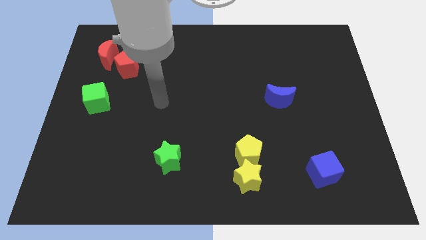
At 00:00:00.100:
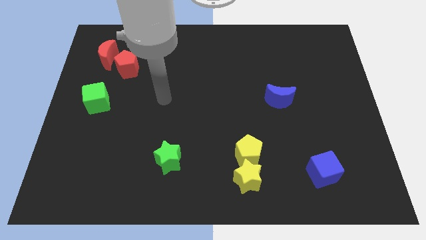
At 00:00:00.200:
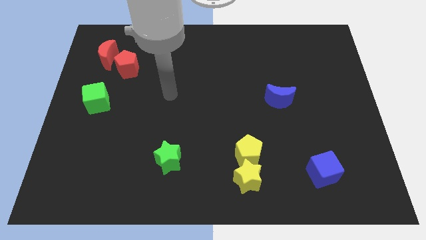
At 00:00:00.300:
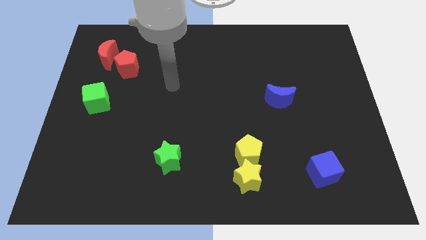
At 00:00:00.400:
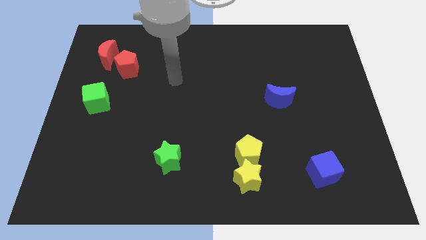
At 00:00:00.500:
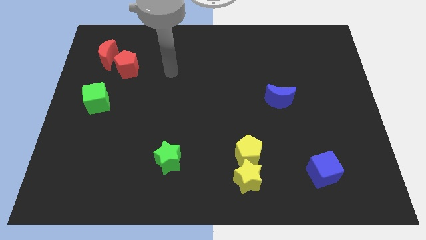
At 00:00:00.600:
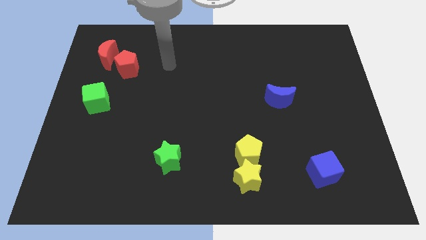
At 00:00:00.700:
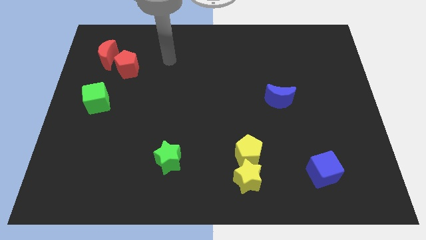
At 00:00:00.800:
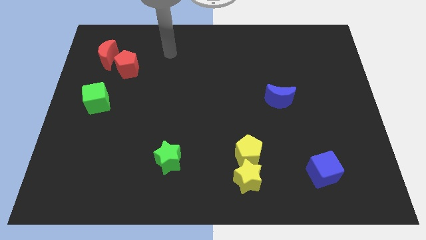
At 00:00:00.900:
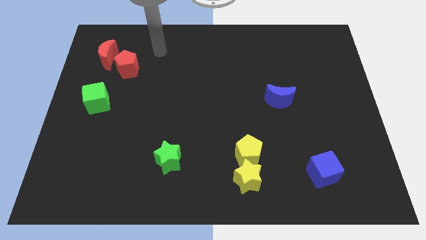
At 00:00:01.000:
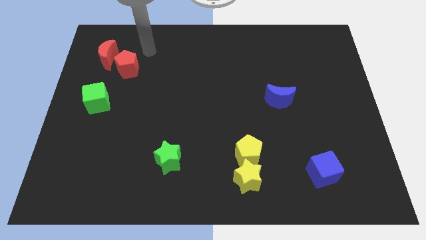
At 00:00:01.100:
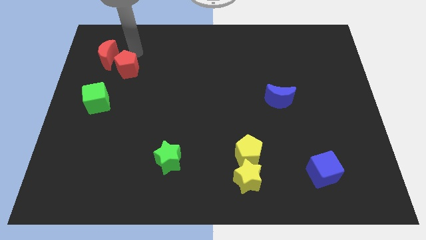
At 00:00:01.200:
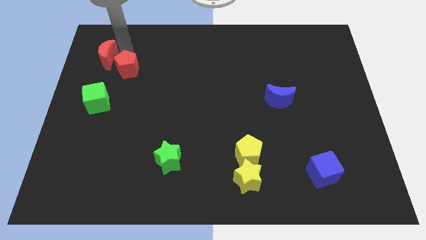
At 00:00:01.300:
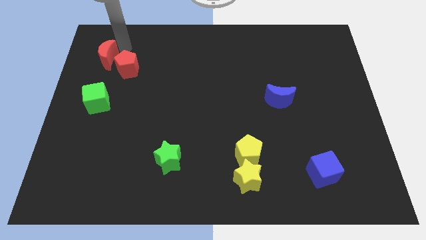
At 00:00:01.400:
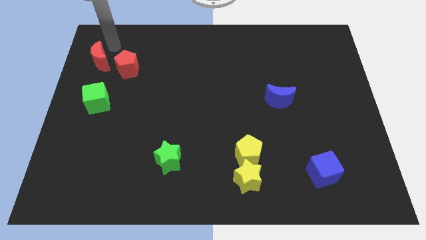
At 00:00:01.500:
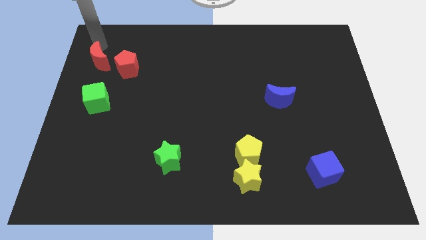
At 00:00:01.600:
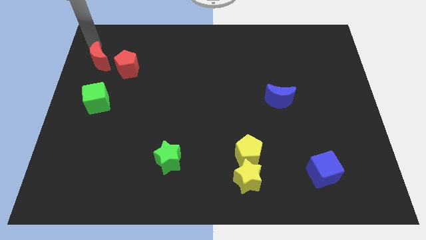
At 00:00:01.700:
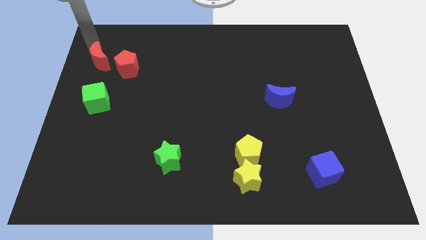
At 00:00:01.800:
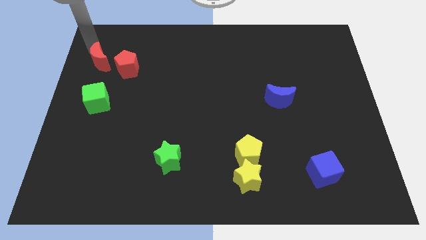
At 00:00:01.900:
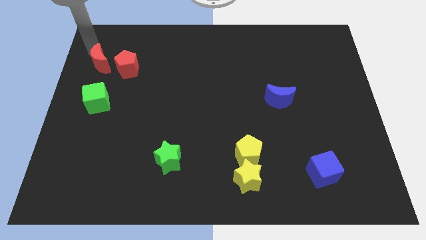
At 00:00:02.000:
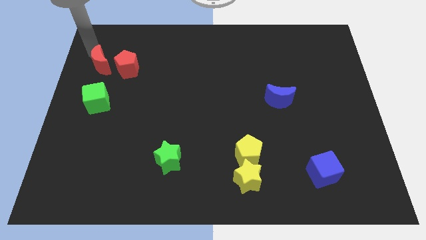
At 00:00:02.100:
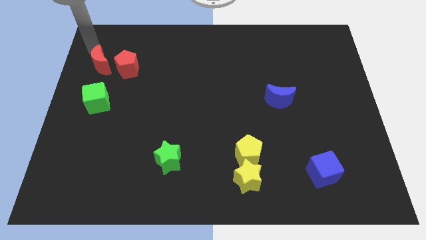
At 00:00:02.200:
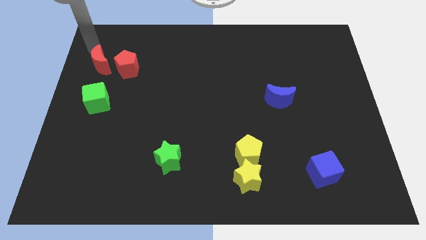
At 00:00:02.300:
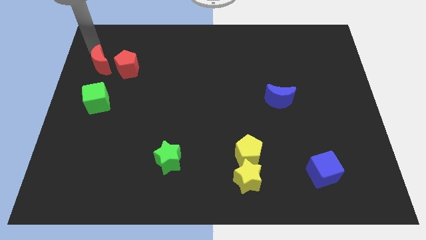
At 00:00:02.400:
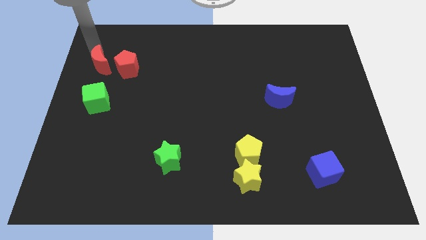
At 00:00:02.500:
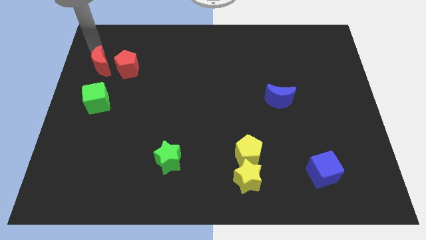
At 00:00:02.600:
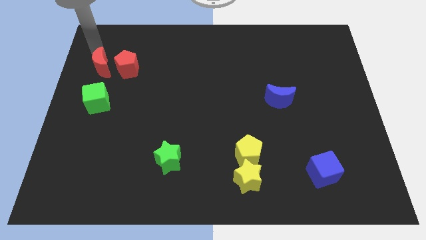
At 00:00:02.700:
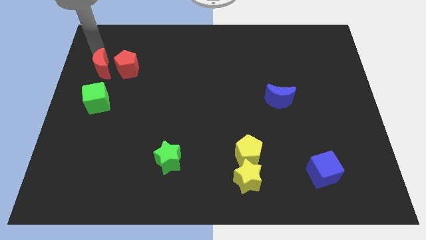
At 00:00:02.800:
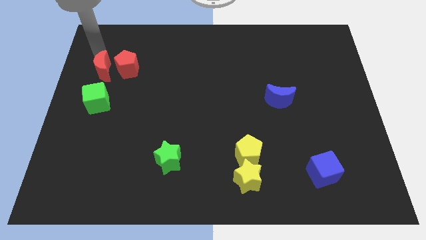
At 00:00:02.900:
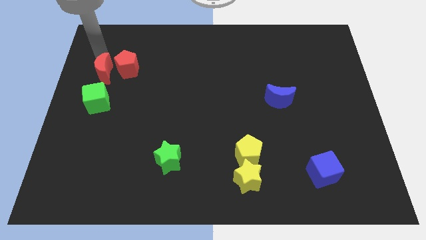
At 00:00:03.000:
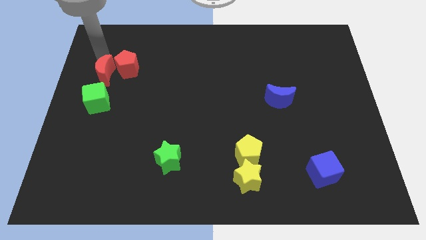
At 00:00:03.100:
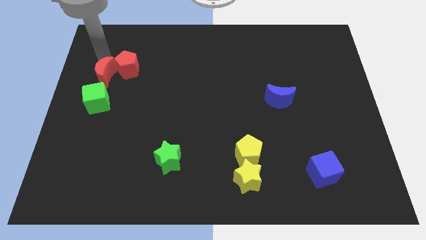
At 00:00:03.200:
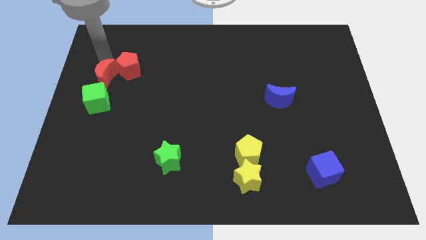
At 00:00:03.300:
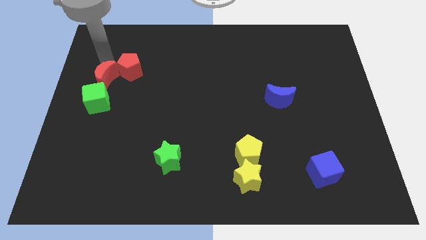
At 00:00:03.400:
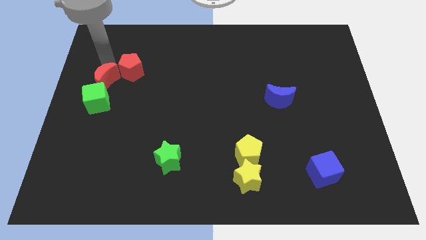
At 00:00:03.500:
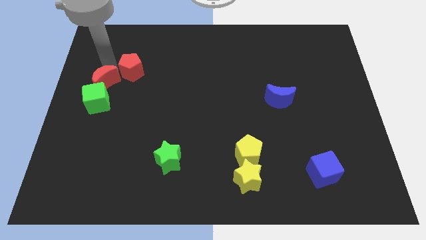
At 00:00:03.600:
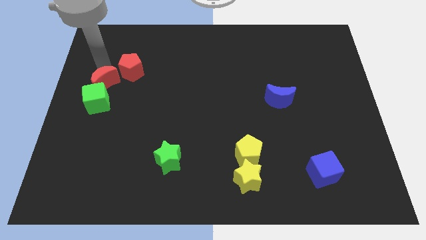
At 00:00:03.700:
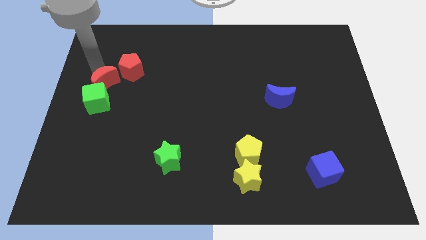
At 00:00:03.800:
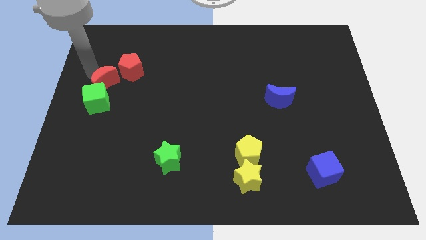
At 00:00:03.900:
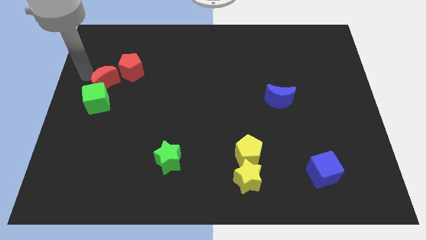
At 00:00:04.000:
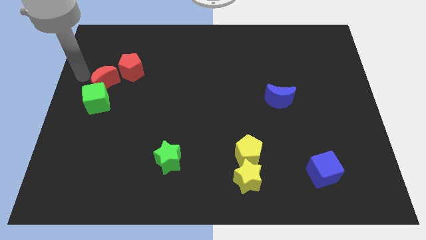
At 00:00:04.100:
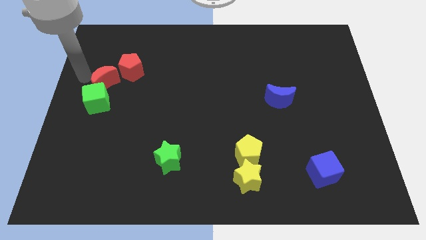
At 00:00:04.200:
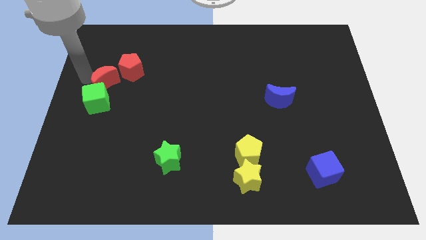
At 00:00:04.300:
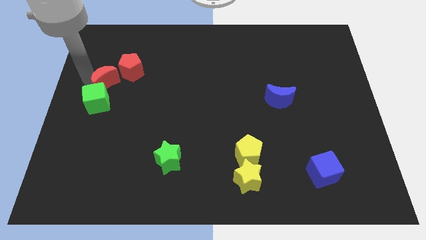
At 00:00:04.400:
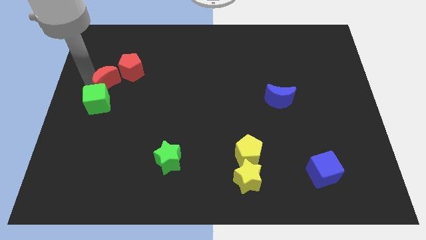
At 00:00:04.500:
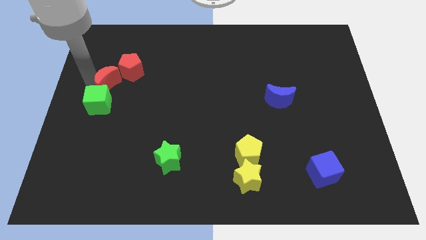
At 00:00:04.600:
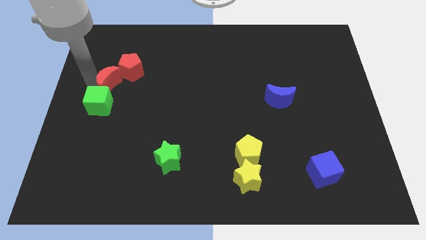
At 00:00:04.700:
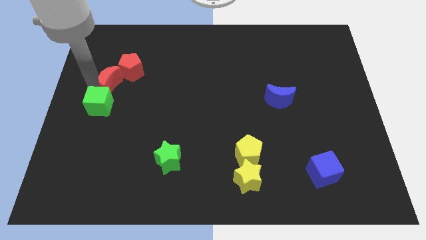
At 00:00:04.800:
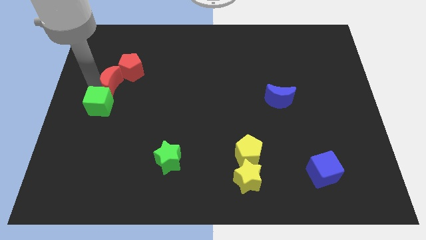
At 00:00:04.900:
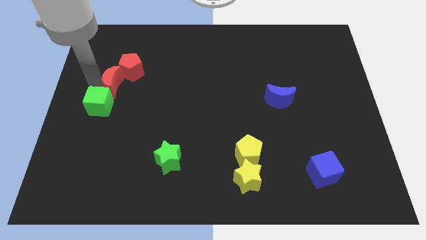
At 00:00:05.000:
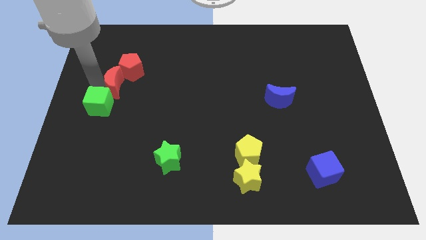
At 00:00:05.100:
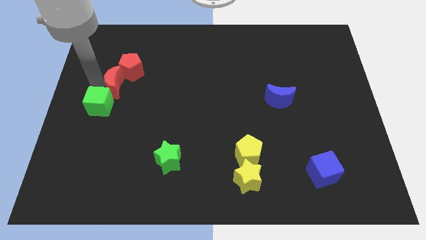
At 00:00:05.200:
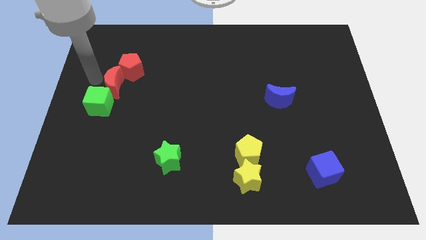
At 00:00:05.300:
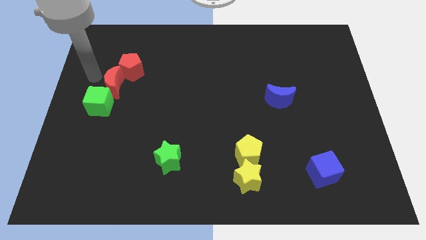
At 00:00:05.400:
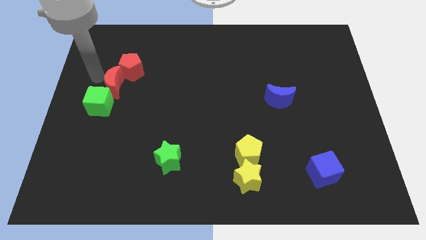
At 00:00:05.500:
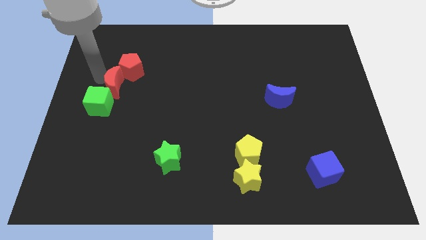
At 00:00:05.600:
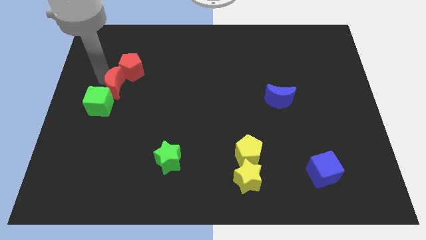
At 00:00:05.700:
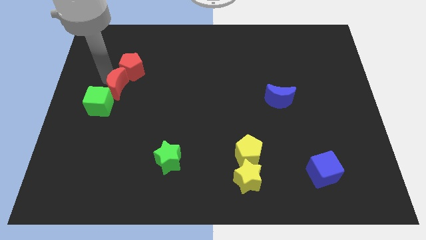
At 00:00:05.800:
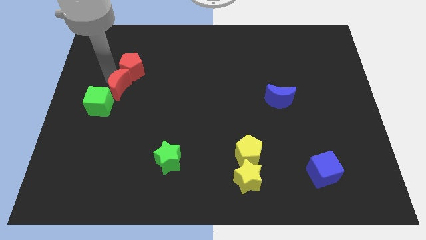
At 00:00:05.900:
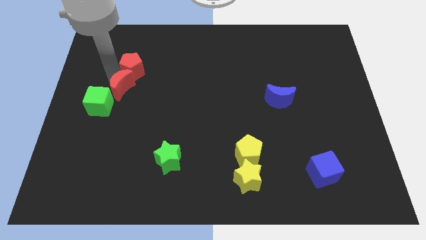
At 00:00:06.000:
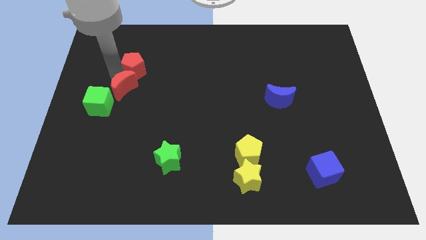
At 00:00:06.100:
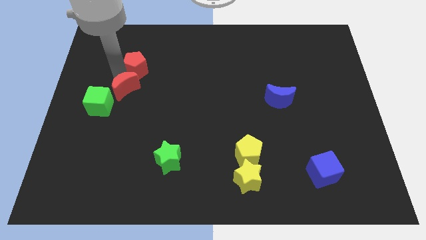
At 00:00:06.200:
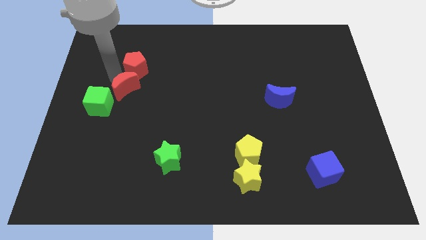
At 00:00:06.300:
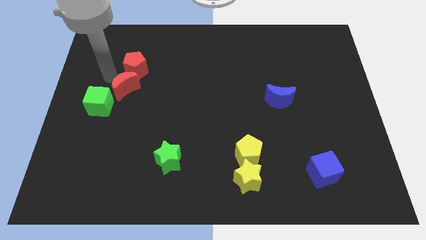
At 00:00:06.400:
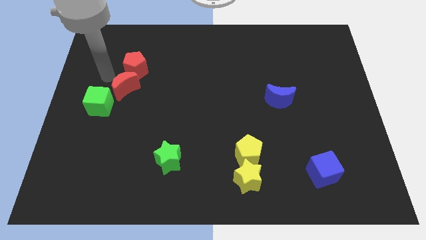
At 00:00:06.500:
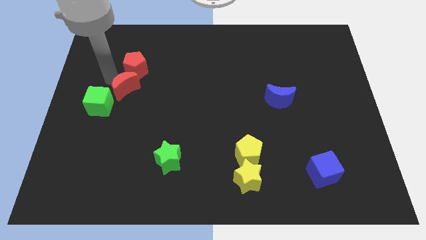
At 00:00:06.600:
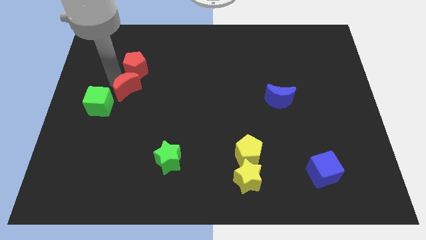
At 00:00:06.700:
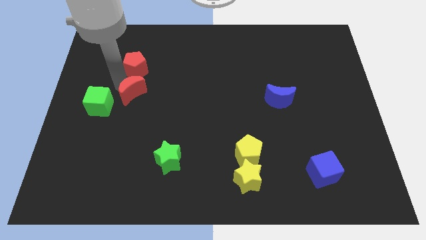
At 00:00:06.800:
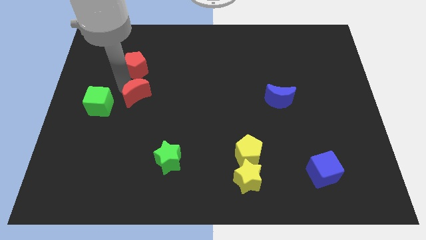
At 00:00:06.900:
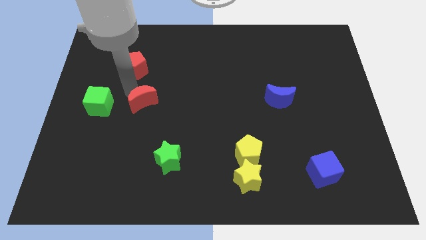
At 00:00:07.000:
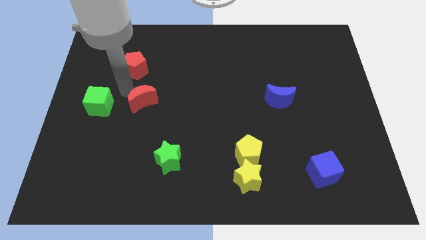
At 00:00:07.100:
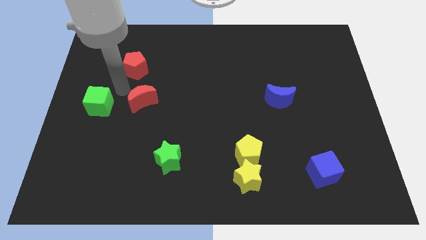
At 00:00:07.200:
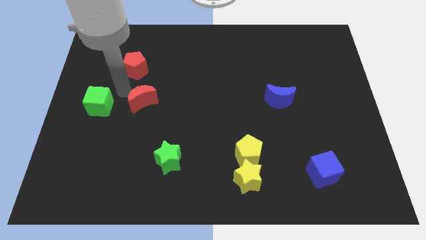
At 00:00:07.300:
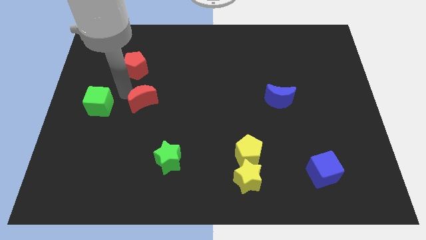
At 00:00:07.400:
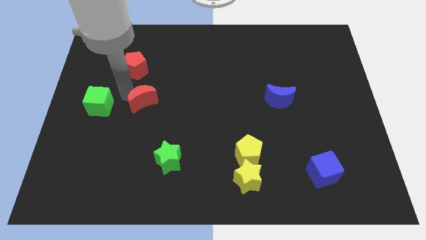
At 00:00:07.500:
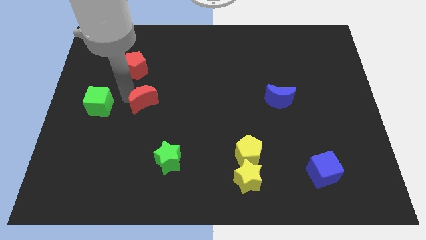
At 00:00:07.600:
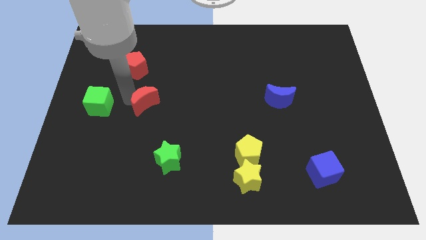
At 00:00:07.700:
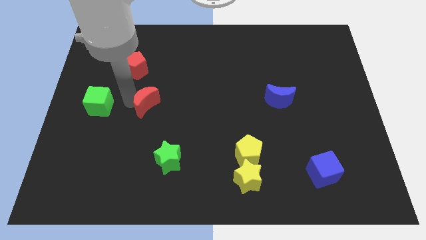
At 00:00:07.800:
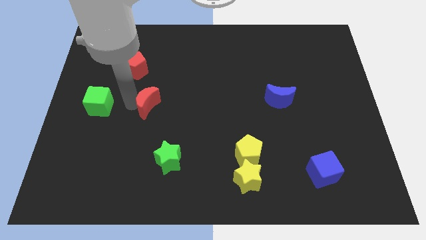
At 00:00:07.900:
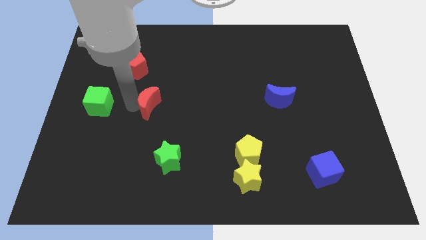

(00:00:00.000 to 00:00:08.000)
move the red moon downwards and then right
